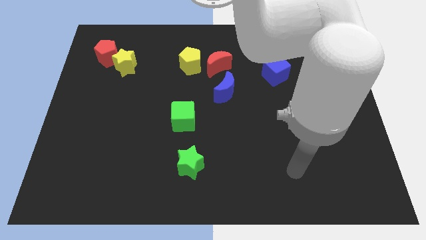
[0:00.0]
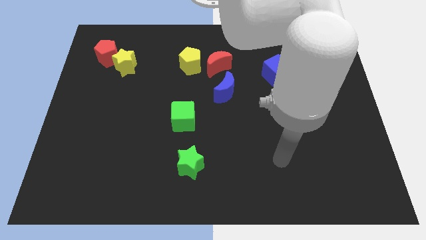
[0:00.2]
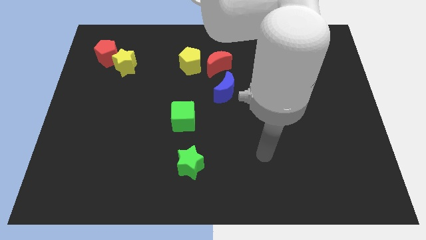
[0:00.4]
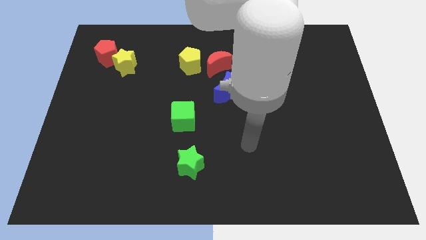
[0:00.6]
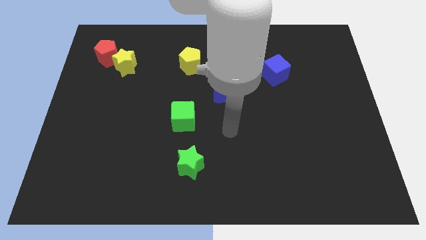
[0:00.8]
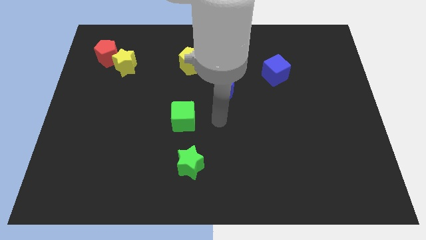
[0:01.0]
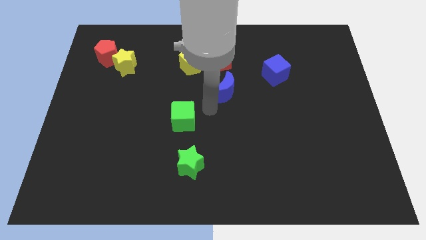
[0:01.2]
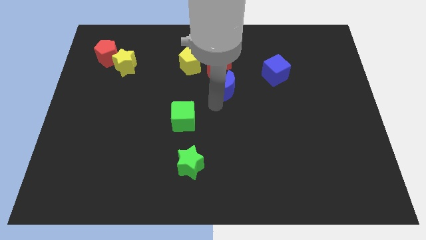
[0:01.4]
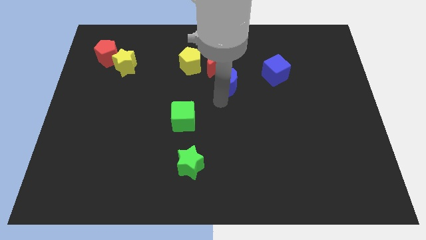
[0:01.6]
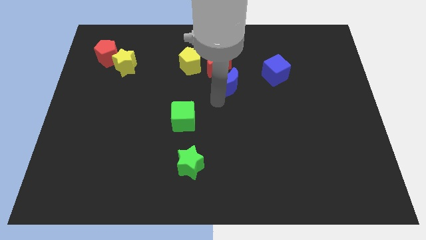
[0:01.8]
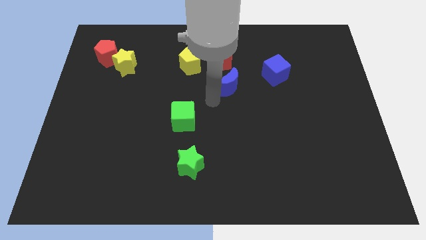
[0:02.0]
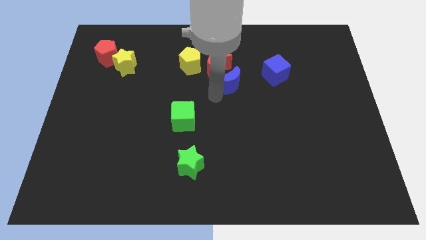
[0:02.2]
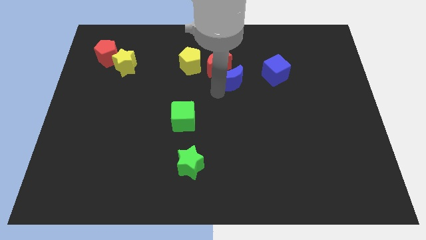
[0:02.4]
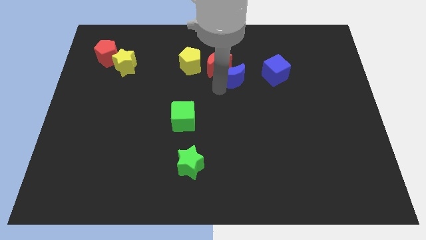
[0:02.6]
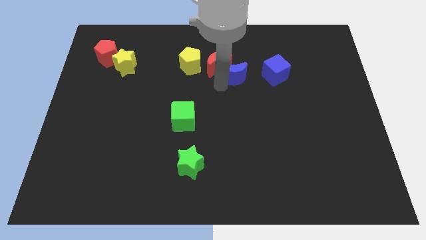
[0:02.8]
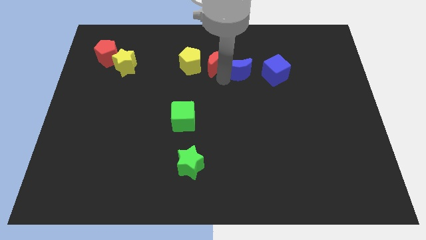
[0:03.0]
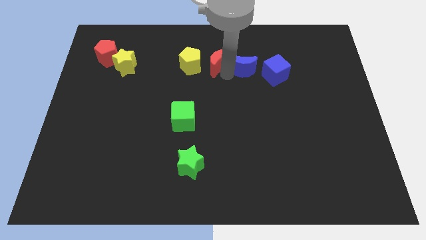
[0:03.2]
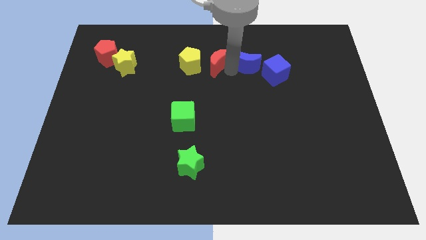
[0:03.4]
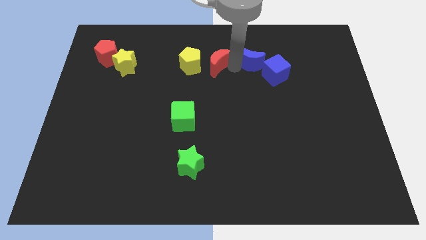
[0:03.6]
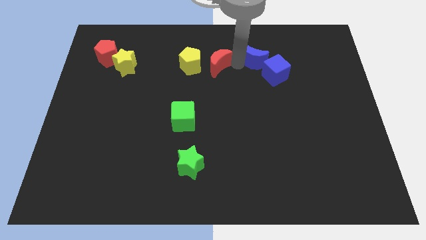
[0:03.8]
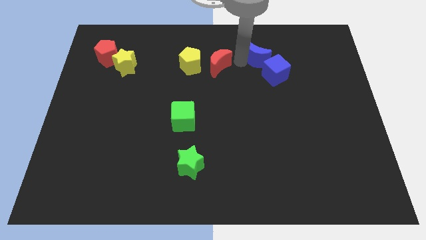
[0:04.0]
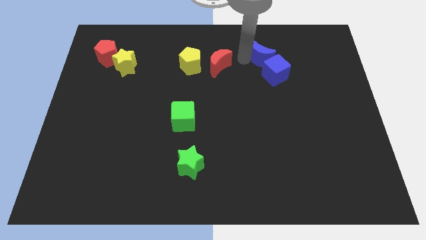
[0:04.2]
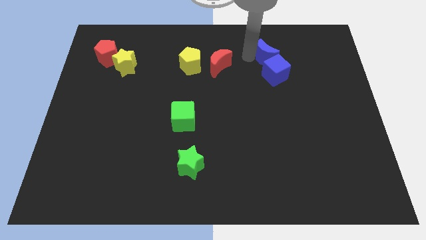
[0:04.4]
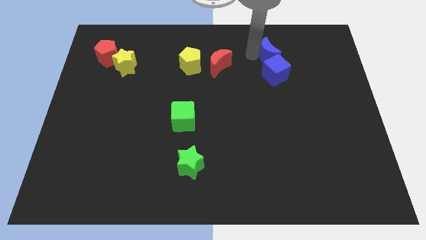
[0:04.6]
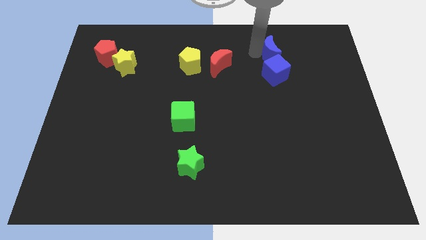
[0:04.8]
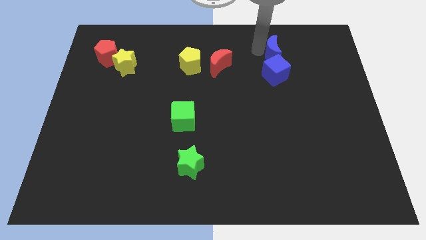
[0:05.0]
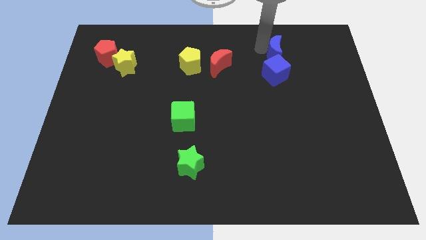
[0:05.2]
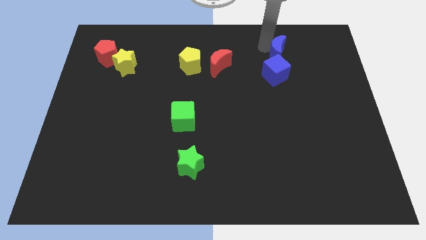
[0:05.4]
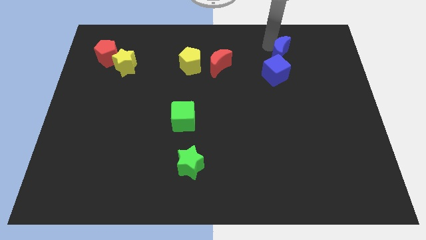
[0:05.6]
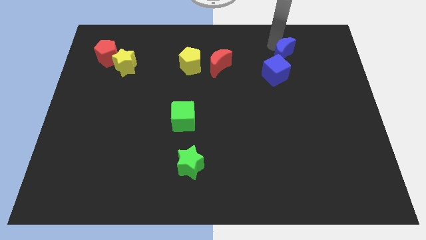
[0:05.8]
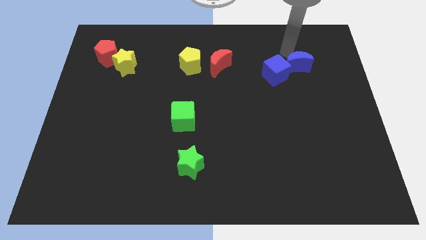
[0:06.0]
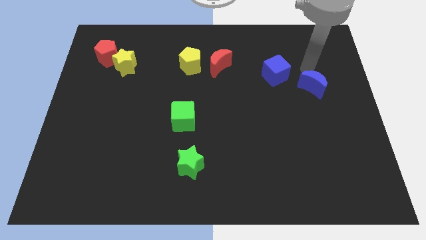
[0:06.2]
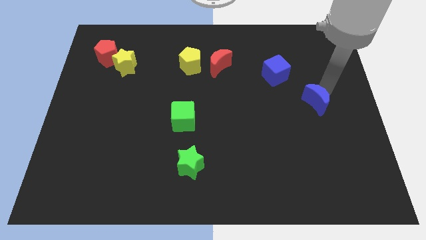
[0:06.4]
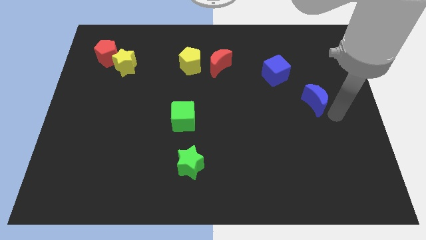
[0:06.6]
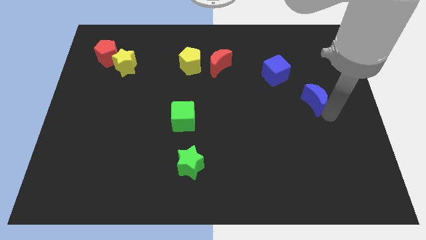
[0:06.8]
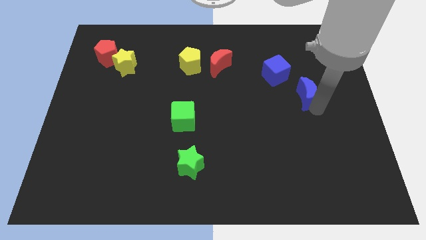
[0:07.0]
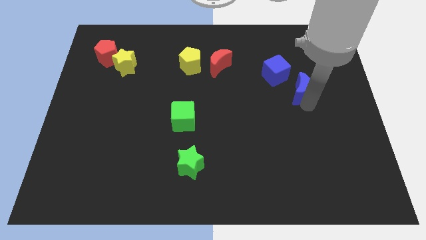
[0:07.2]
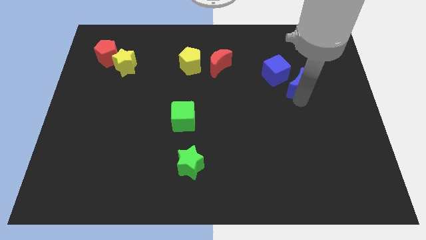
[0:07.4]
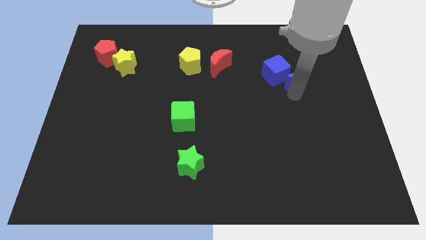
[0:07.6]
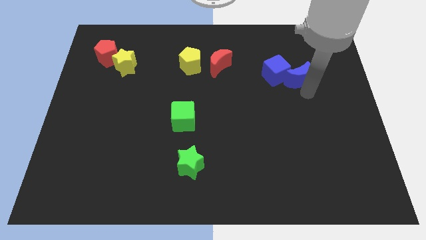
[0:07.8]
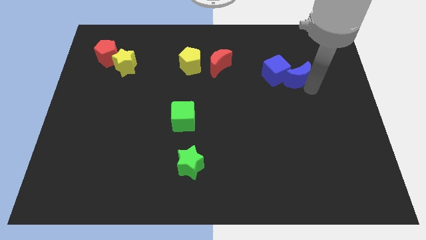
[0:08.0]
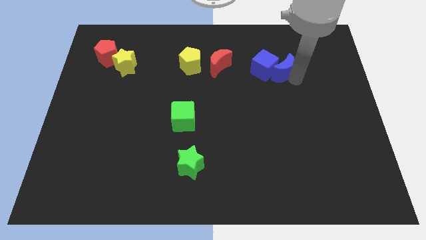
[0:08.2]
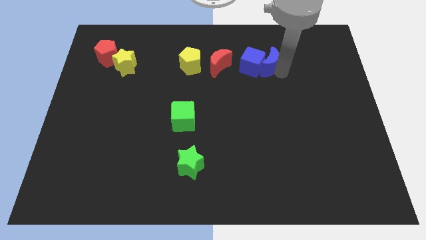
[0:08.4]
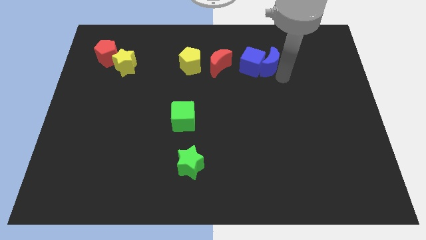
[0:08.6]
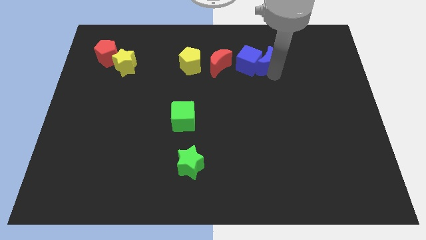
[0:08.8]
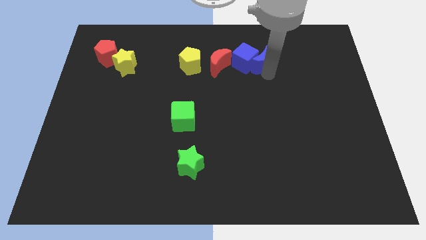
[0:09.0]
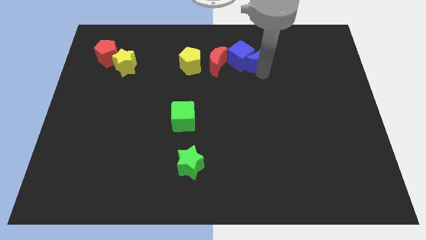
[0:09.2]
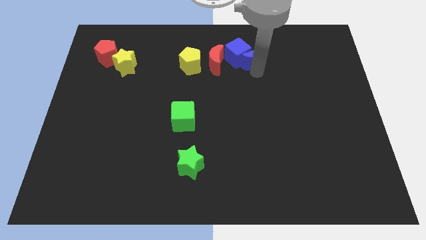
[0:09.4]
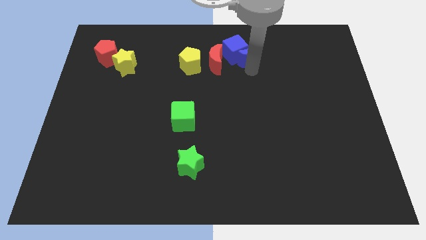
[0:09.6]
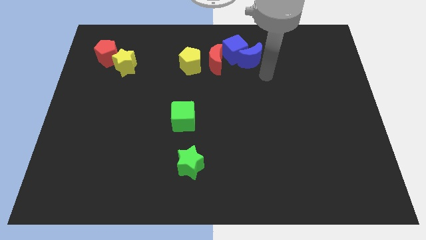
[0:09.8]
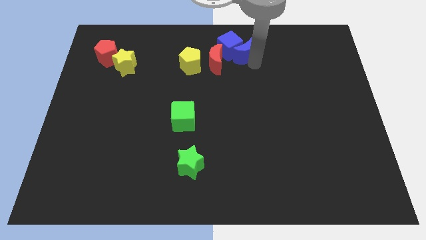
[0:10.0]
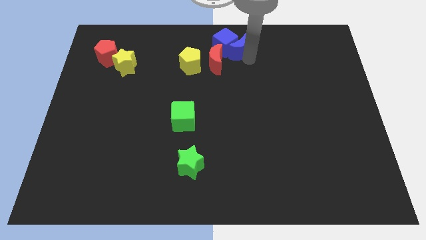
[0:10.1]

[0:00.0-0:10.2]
slide the blue moon to the towards your base

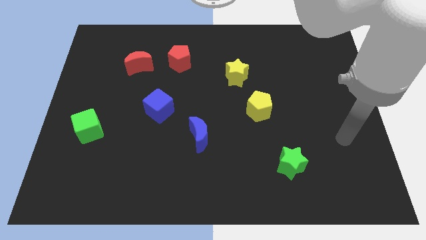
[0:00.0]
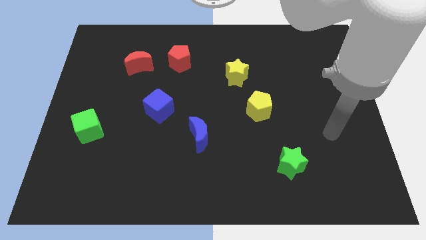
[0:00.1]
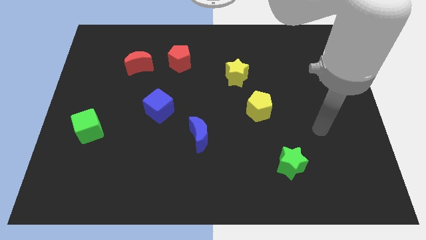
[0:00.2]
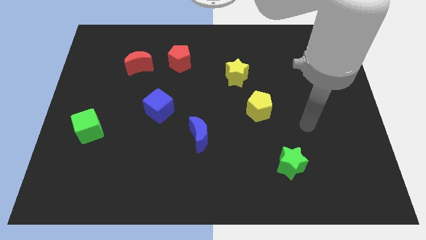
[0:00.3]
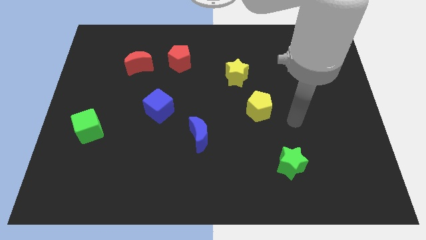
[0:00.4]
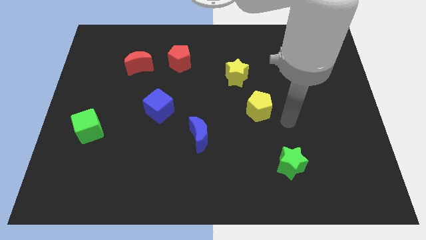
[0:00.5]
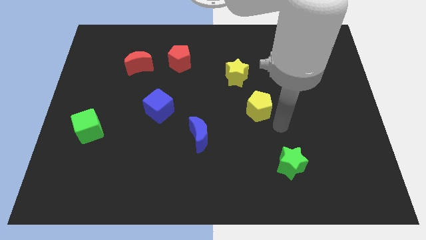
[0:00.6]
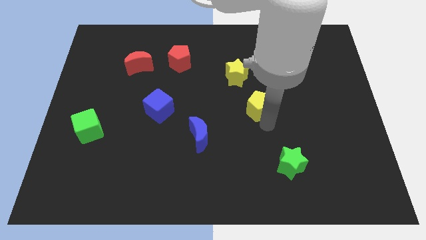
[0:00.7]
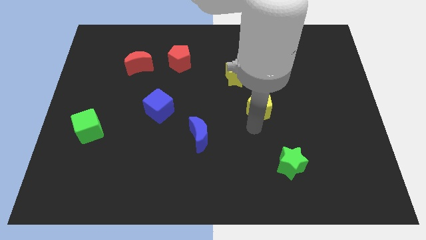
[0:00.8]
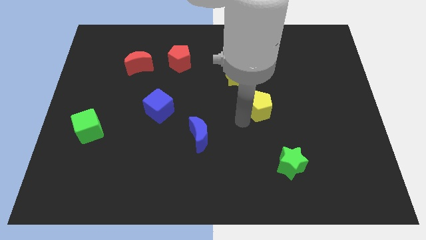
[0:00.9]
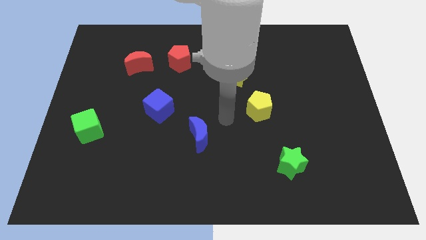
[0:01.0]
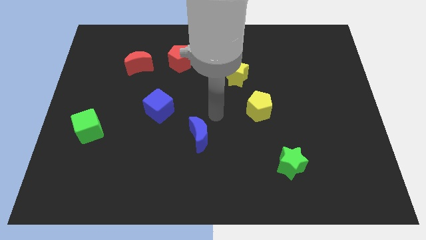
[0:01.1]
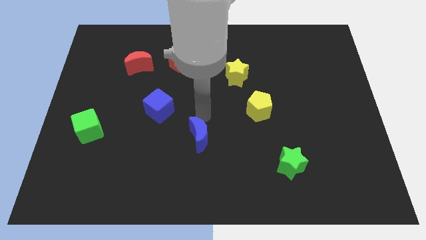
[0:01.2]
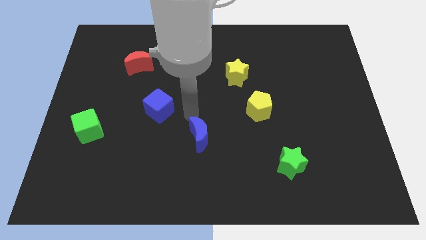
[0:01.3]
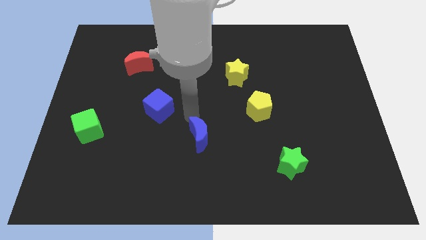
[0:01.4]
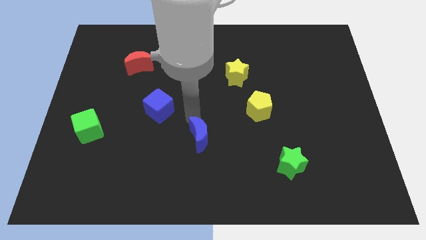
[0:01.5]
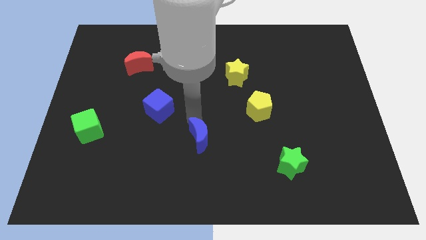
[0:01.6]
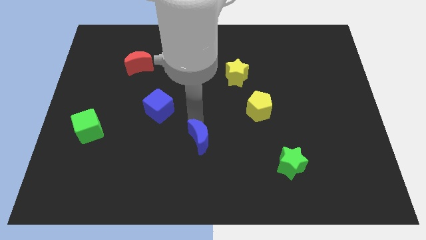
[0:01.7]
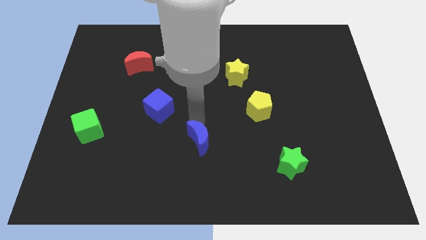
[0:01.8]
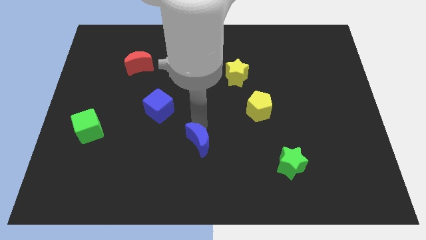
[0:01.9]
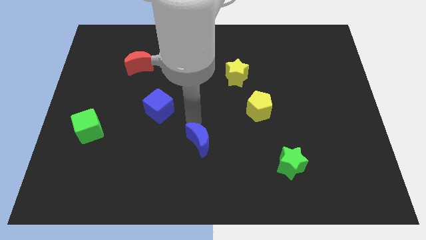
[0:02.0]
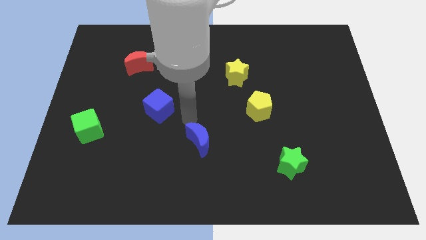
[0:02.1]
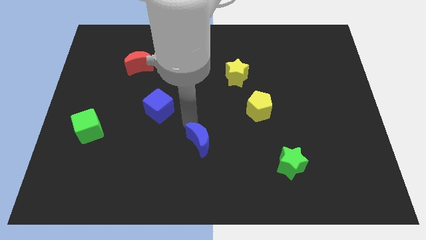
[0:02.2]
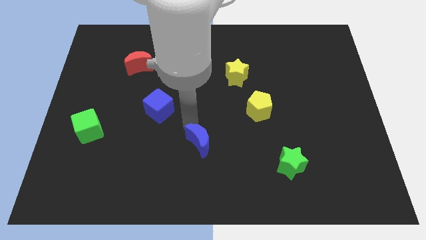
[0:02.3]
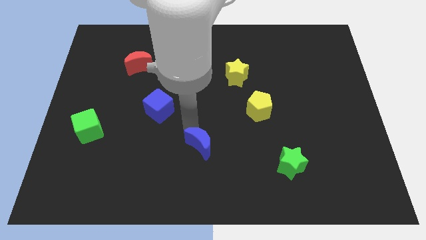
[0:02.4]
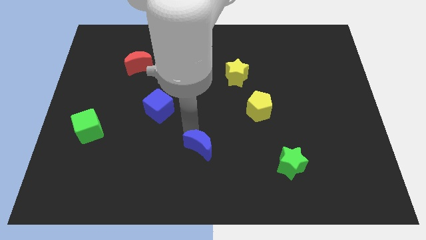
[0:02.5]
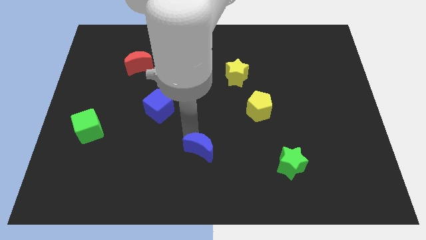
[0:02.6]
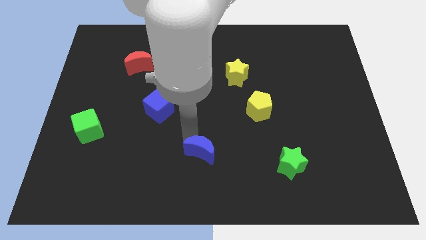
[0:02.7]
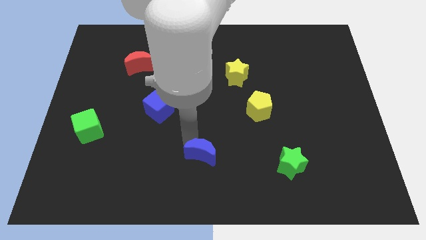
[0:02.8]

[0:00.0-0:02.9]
slide the blue moon to the bottom
